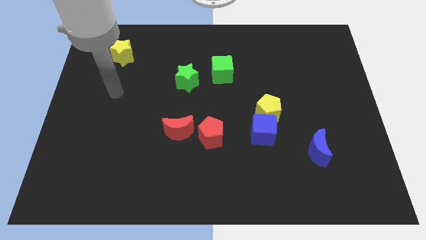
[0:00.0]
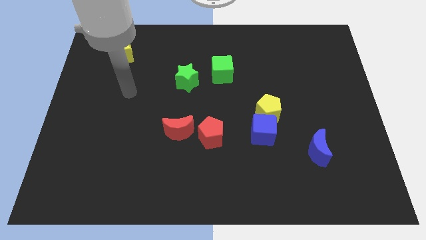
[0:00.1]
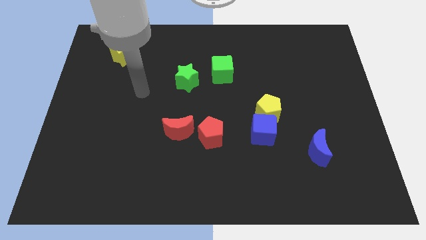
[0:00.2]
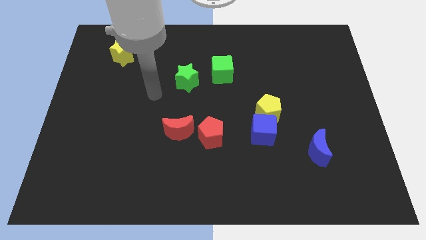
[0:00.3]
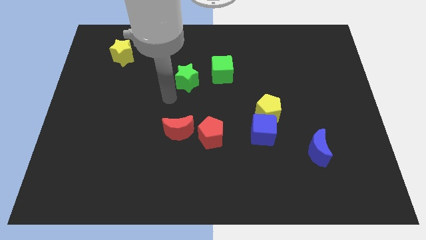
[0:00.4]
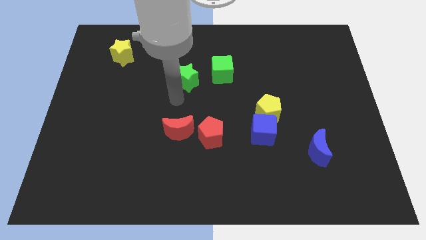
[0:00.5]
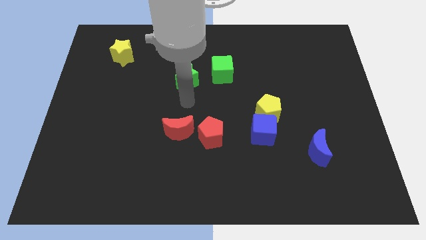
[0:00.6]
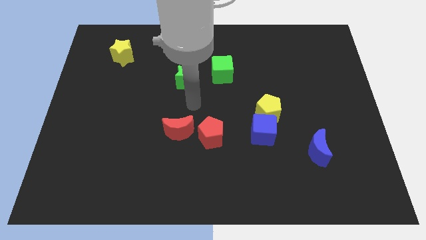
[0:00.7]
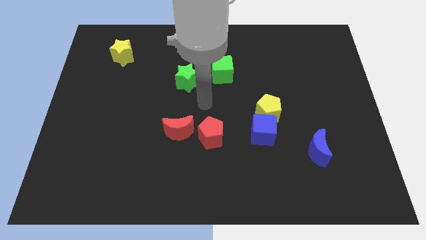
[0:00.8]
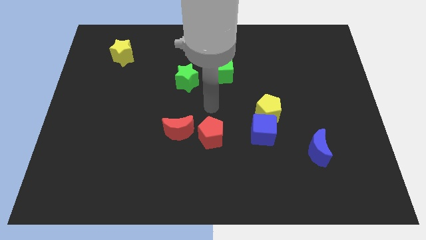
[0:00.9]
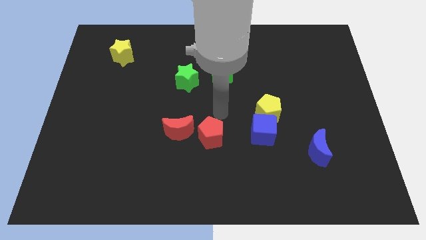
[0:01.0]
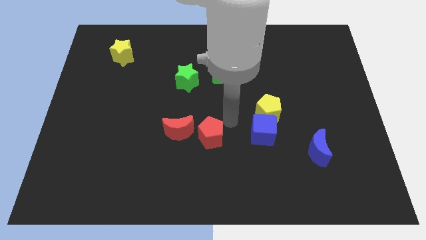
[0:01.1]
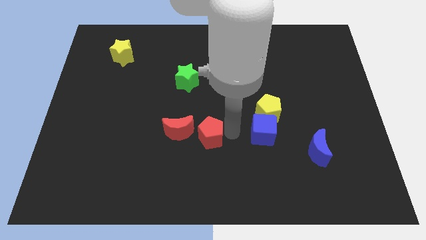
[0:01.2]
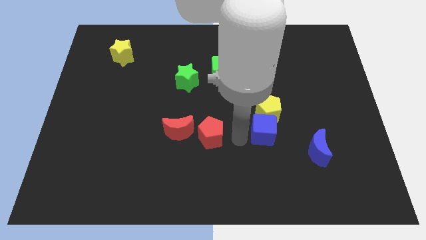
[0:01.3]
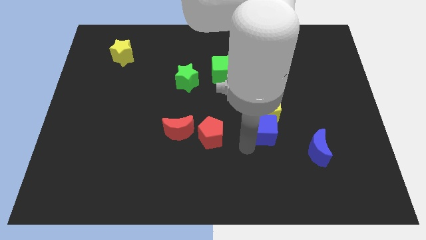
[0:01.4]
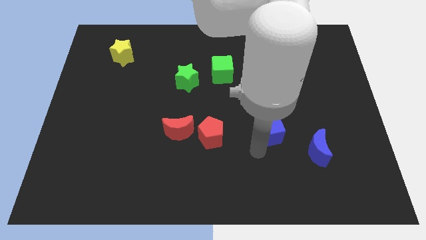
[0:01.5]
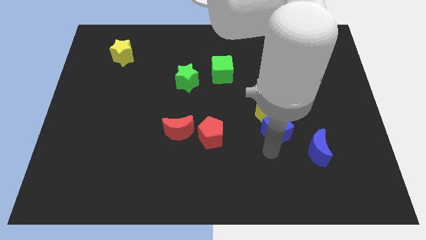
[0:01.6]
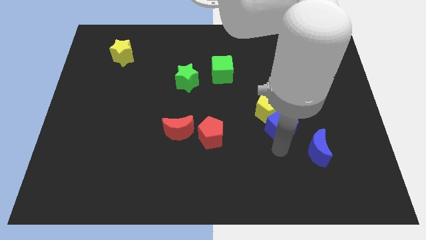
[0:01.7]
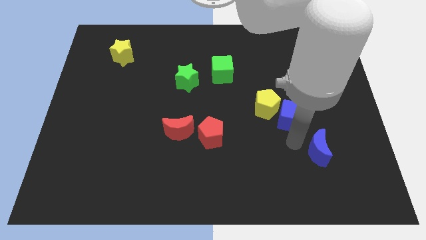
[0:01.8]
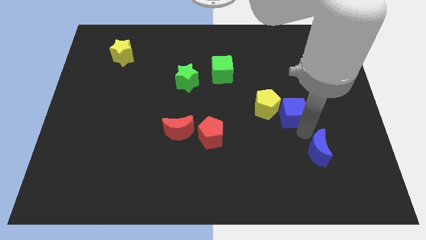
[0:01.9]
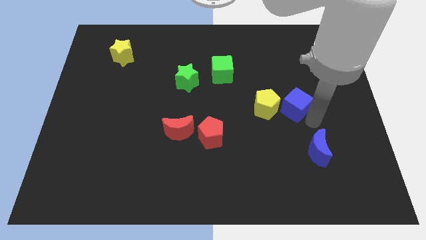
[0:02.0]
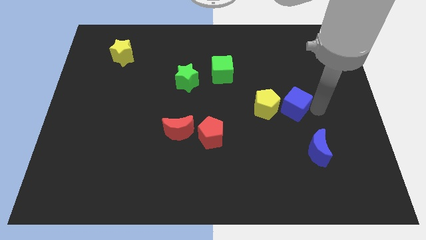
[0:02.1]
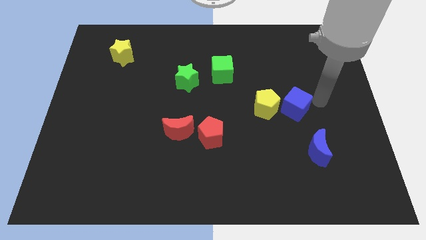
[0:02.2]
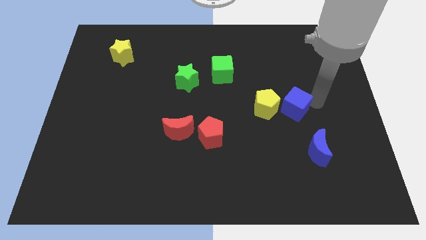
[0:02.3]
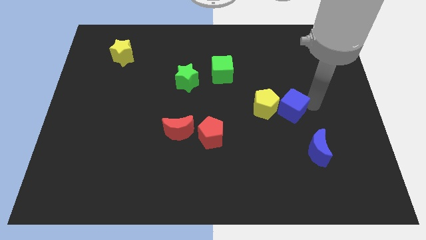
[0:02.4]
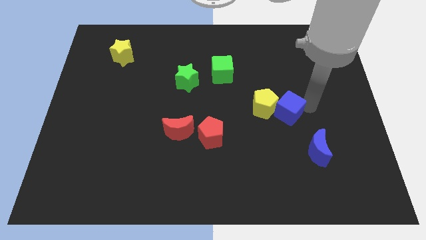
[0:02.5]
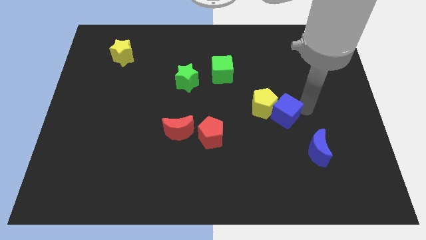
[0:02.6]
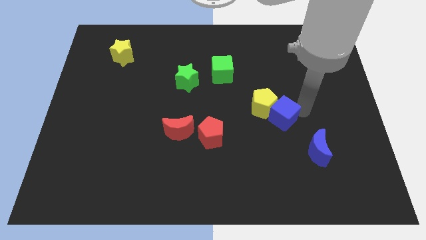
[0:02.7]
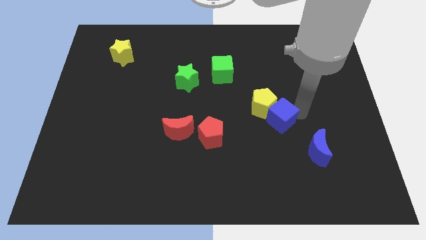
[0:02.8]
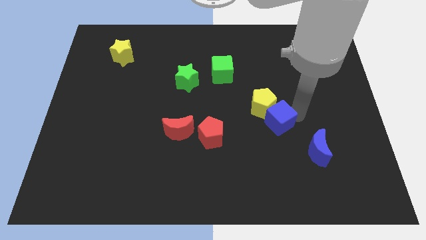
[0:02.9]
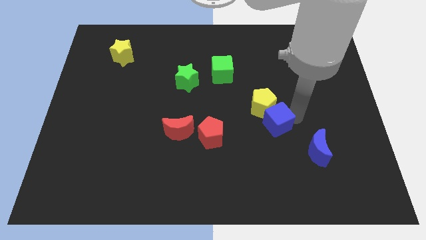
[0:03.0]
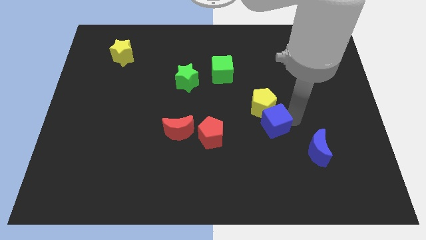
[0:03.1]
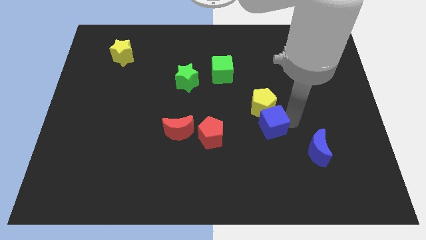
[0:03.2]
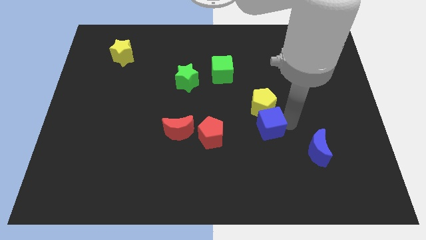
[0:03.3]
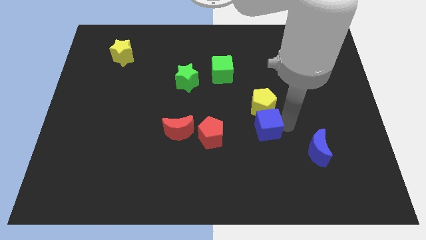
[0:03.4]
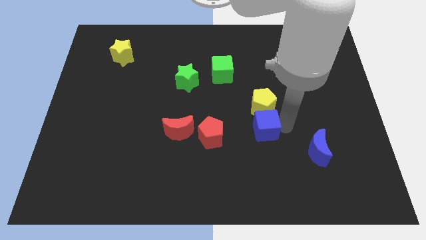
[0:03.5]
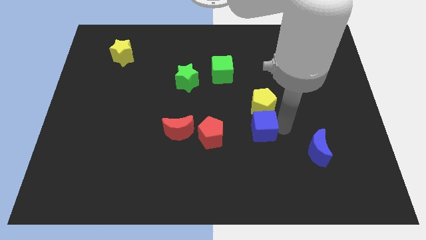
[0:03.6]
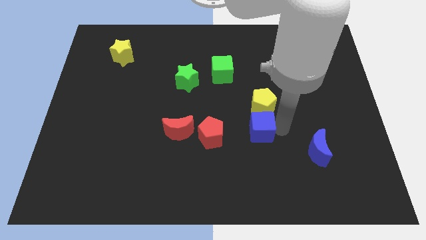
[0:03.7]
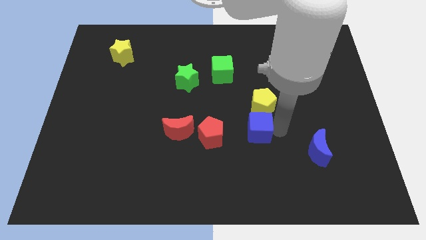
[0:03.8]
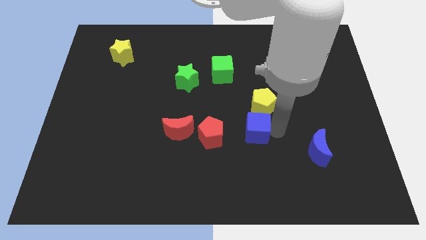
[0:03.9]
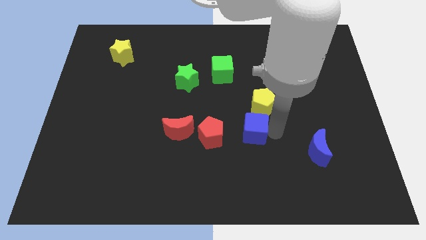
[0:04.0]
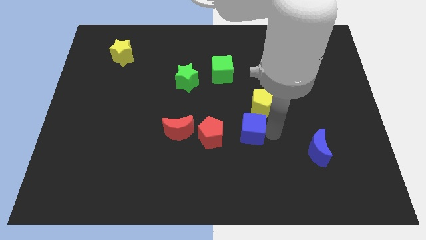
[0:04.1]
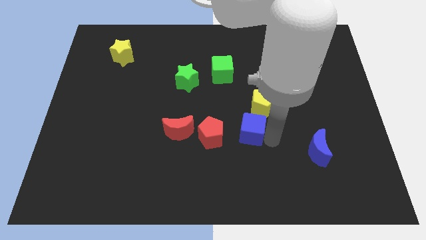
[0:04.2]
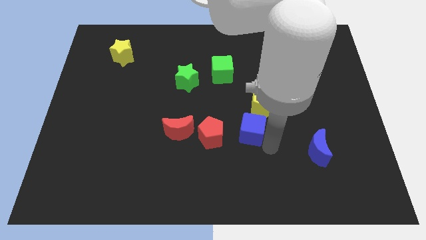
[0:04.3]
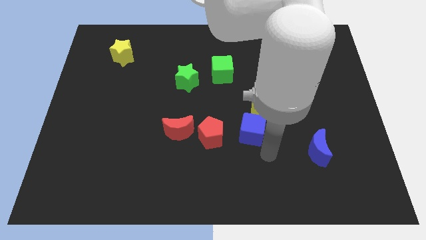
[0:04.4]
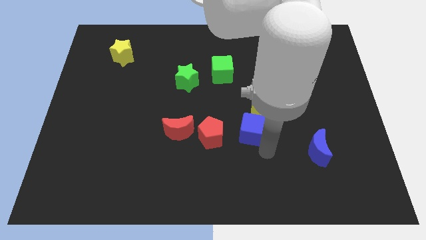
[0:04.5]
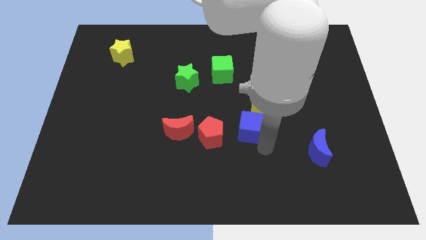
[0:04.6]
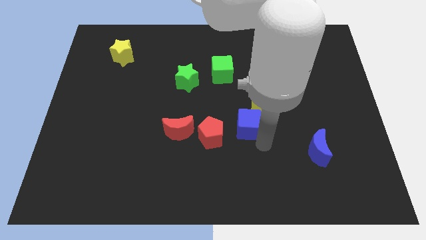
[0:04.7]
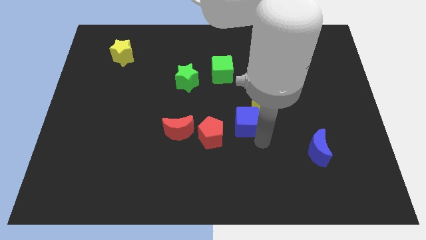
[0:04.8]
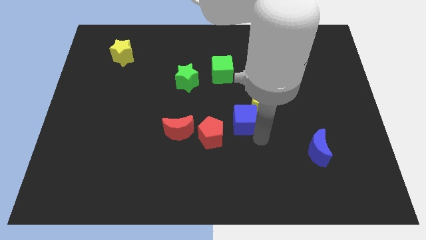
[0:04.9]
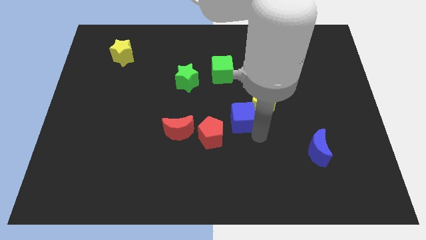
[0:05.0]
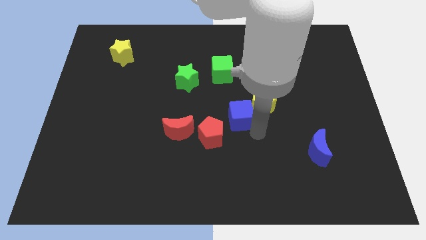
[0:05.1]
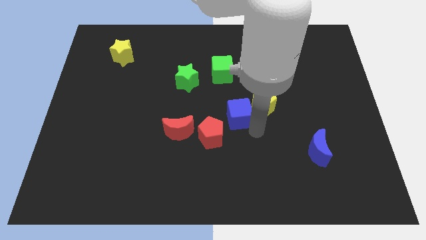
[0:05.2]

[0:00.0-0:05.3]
move the blue cube up and left a bit

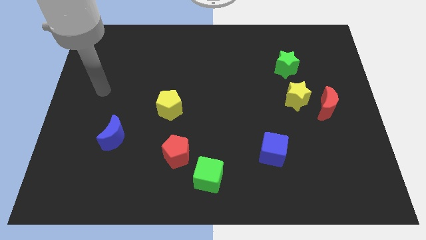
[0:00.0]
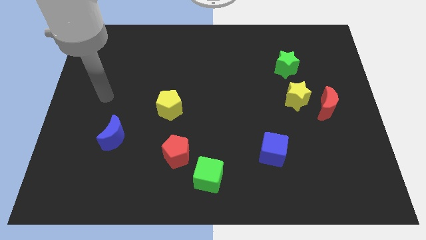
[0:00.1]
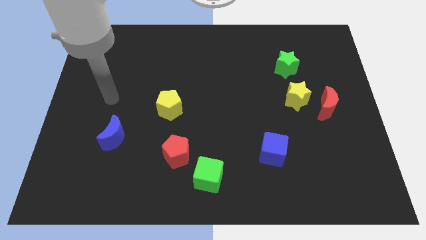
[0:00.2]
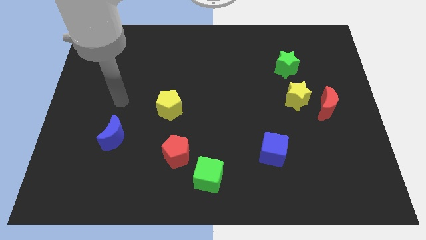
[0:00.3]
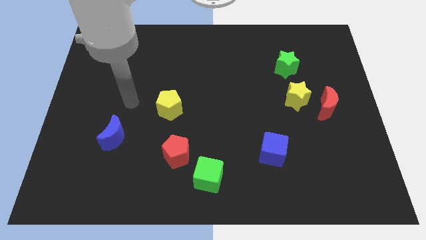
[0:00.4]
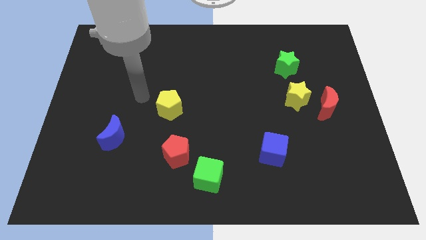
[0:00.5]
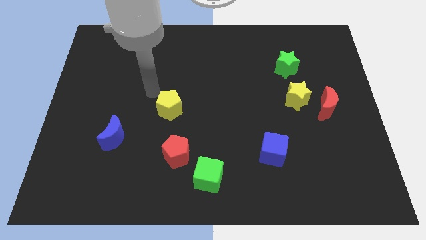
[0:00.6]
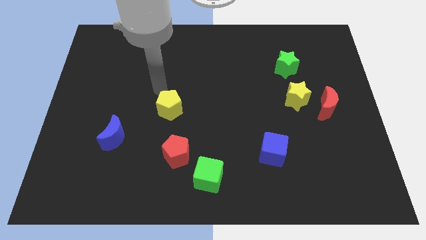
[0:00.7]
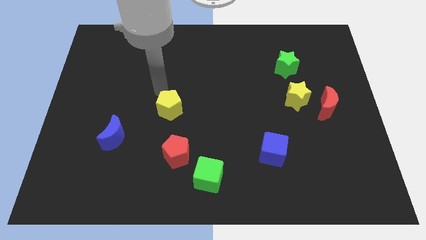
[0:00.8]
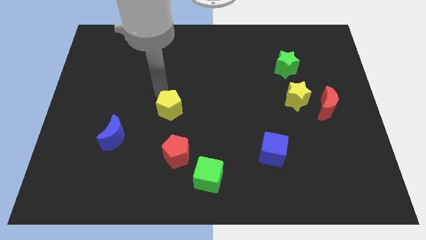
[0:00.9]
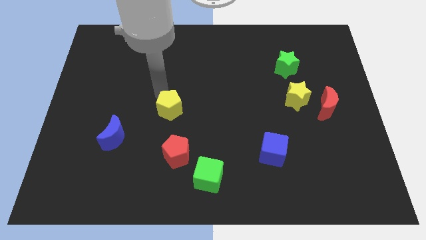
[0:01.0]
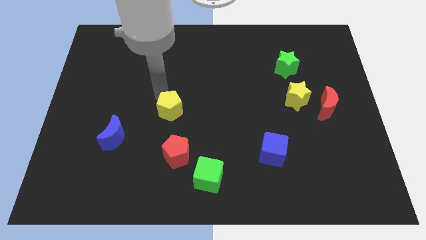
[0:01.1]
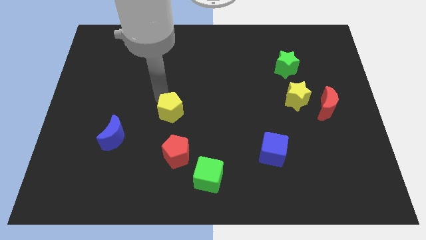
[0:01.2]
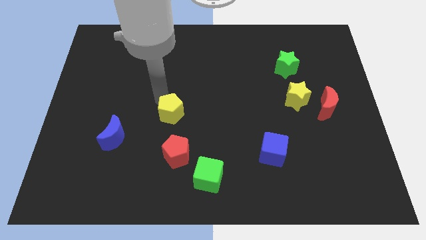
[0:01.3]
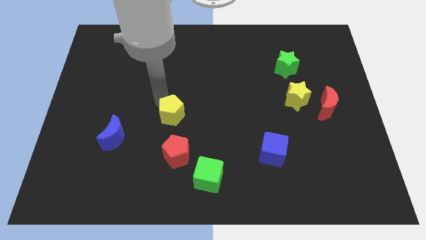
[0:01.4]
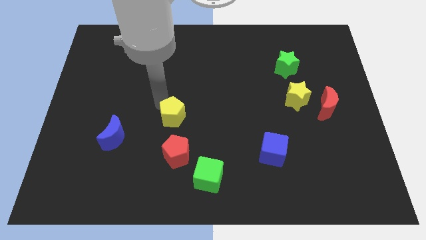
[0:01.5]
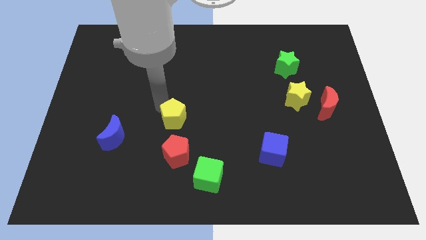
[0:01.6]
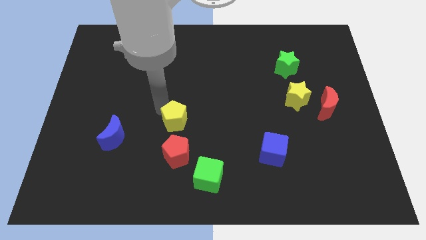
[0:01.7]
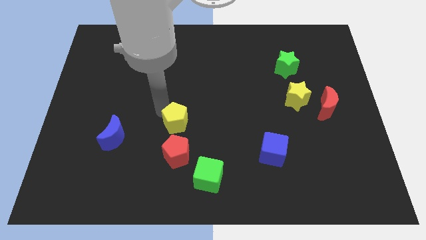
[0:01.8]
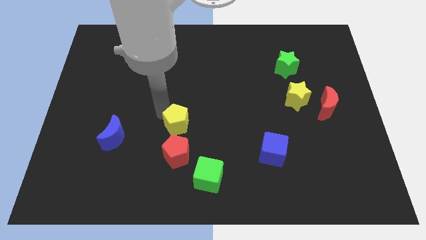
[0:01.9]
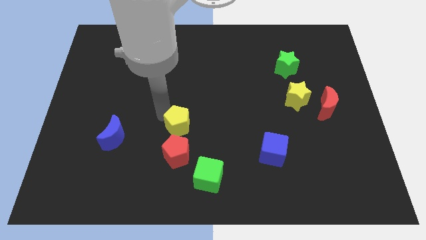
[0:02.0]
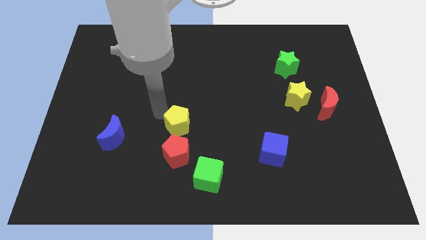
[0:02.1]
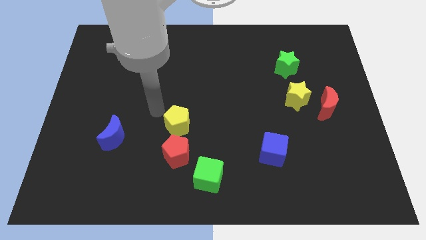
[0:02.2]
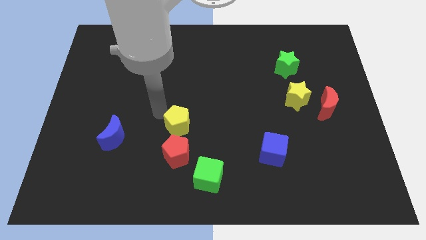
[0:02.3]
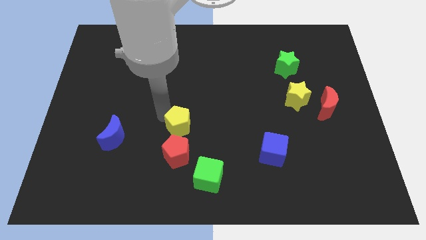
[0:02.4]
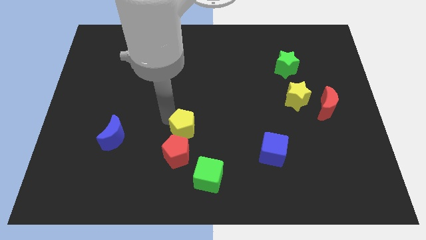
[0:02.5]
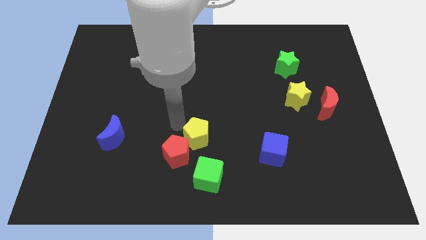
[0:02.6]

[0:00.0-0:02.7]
slide the yellow pentagon slightly diagonally downwards and right
